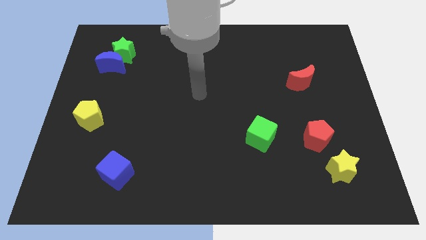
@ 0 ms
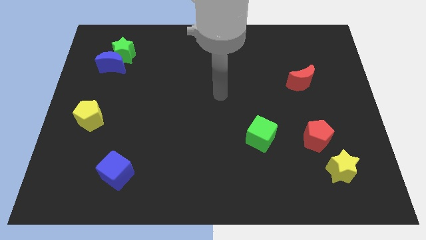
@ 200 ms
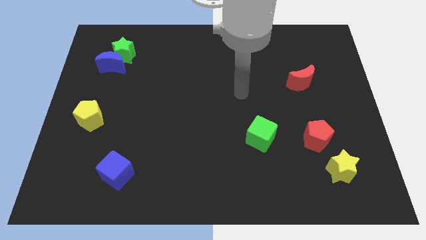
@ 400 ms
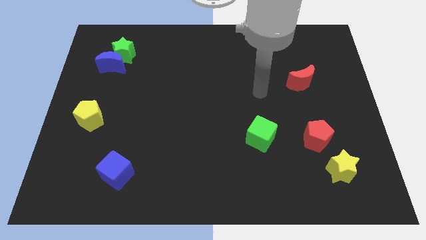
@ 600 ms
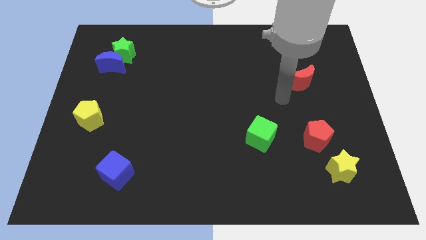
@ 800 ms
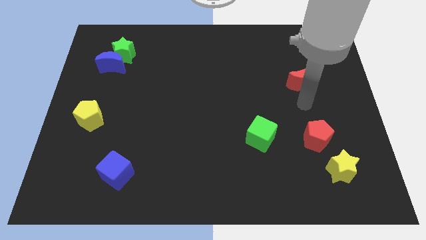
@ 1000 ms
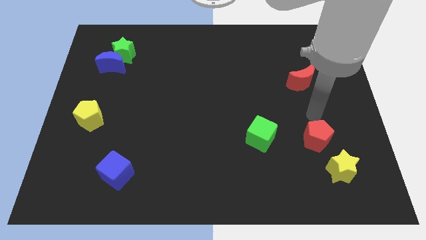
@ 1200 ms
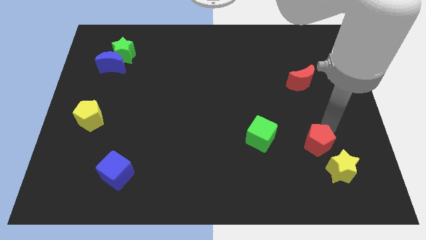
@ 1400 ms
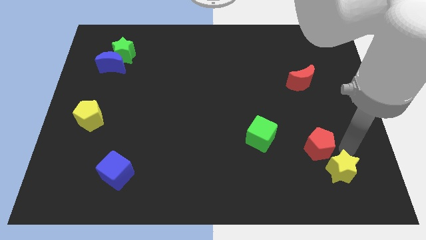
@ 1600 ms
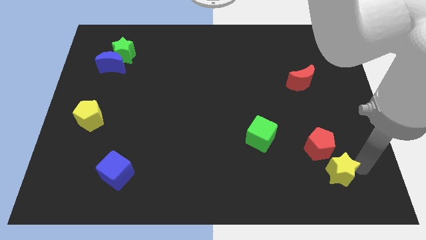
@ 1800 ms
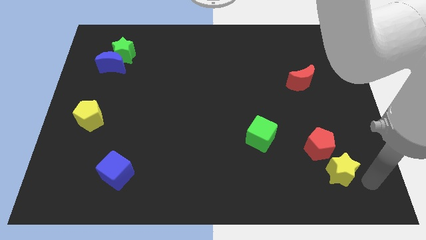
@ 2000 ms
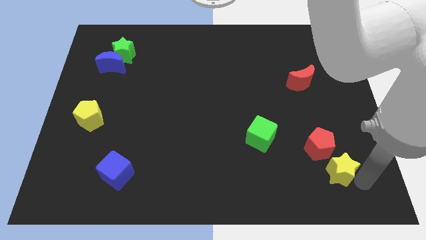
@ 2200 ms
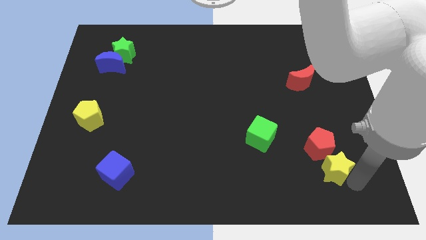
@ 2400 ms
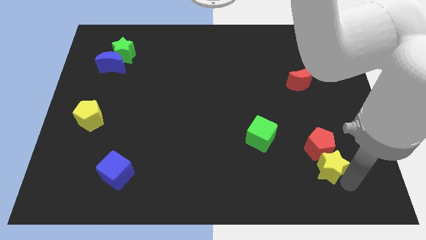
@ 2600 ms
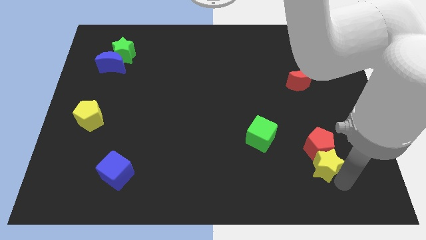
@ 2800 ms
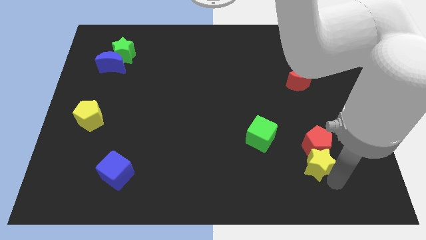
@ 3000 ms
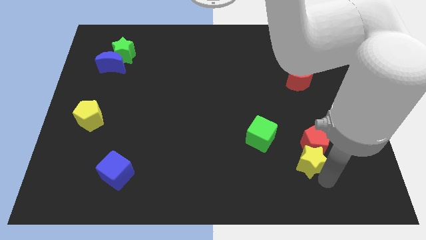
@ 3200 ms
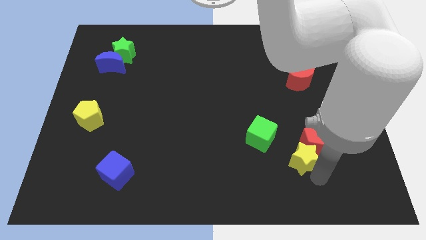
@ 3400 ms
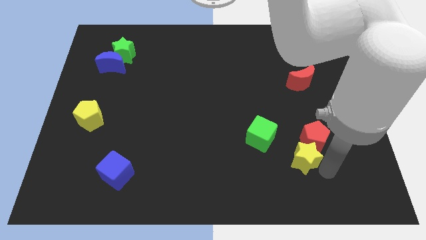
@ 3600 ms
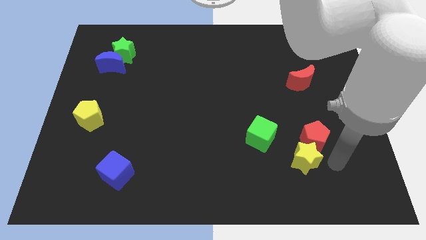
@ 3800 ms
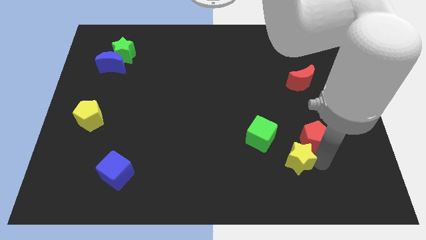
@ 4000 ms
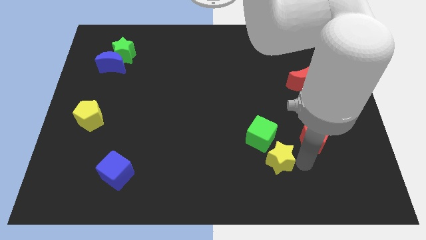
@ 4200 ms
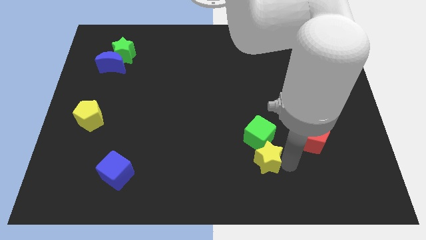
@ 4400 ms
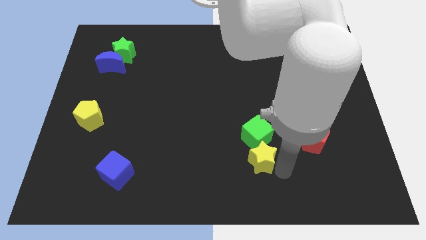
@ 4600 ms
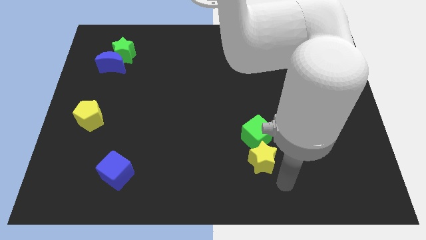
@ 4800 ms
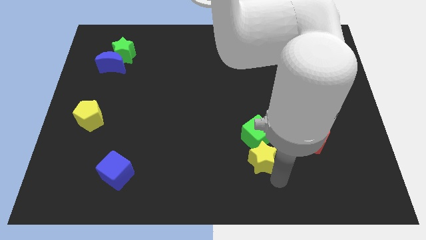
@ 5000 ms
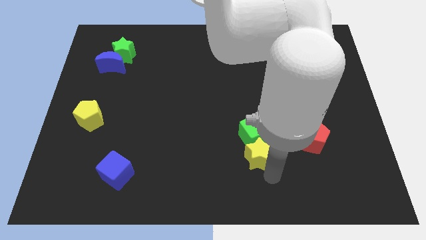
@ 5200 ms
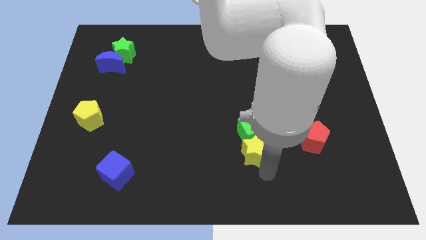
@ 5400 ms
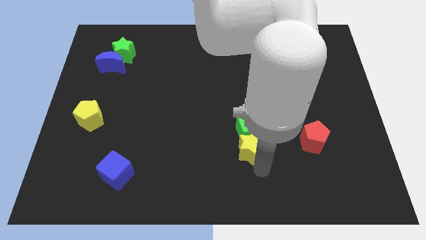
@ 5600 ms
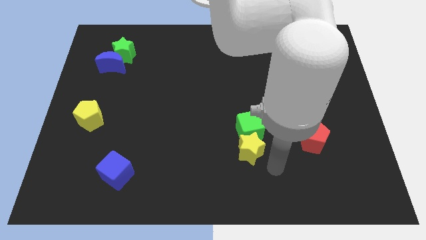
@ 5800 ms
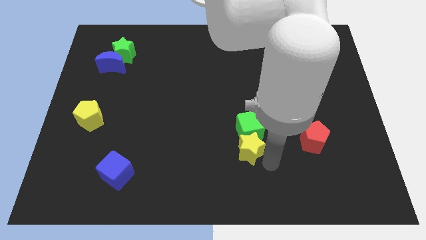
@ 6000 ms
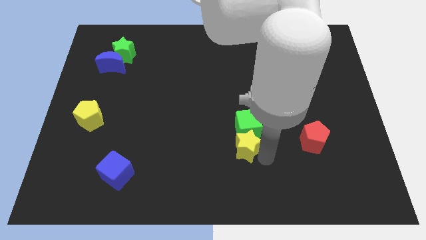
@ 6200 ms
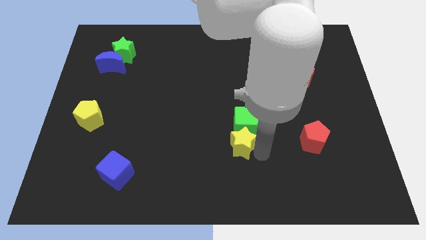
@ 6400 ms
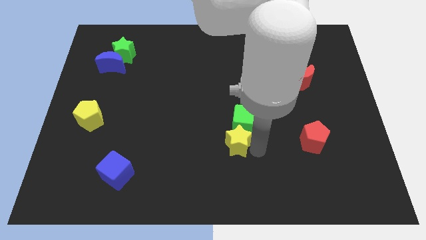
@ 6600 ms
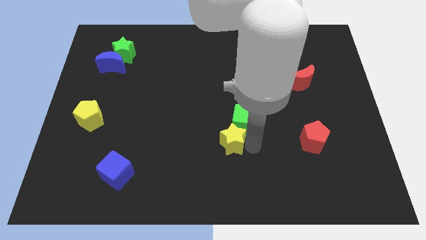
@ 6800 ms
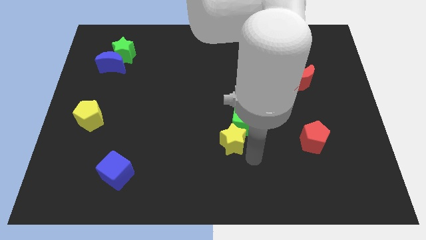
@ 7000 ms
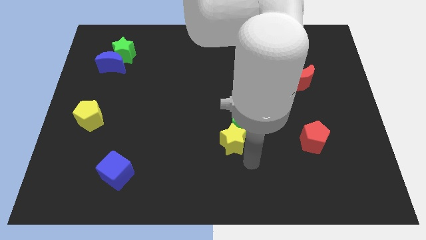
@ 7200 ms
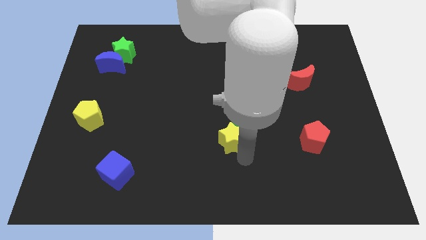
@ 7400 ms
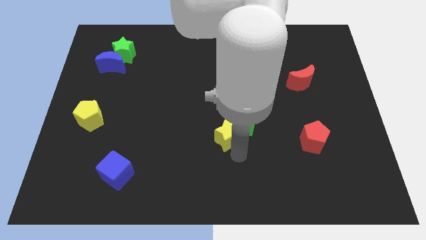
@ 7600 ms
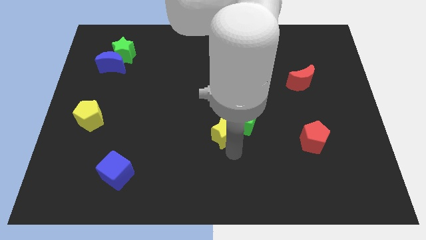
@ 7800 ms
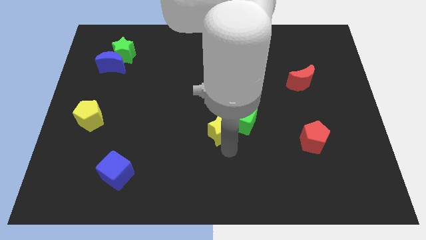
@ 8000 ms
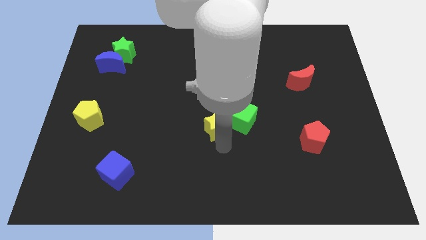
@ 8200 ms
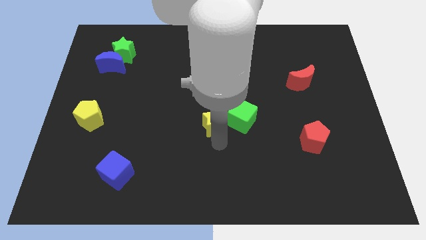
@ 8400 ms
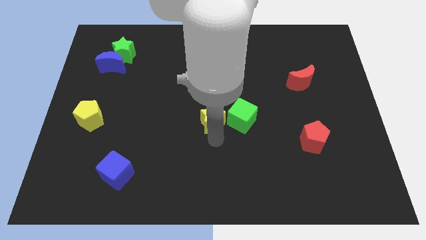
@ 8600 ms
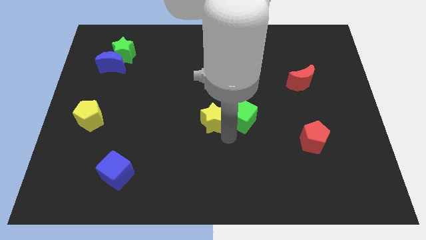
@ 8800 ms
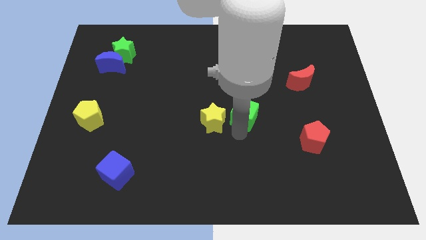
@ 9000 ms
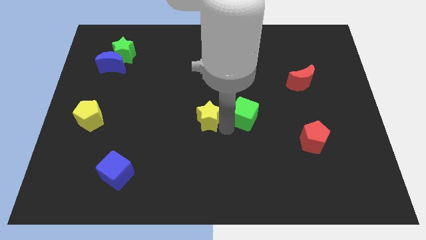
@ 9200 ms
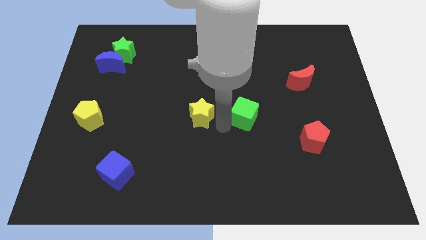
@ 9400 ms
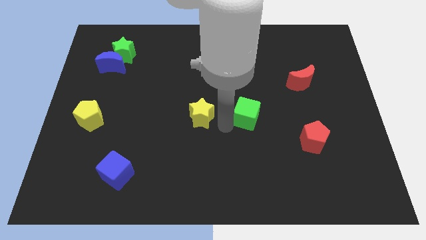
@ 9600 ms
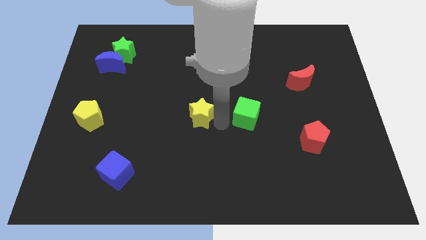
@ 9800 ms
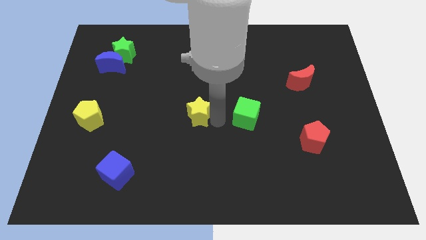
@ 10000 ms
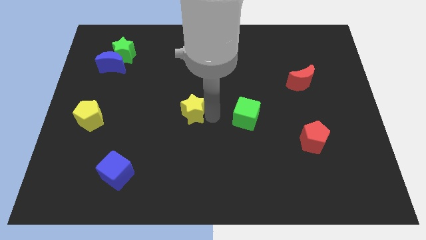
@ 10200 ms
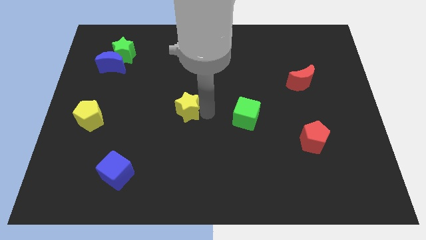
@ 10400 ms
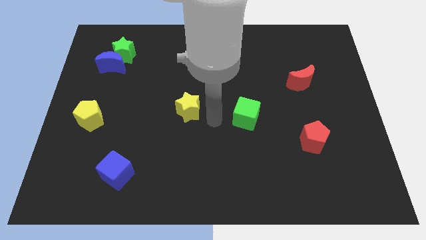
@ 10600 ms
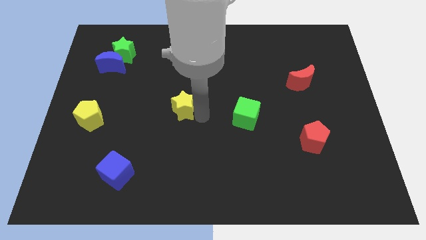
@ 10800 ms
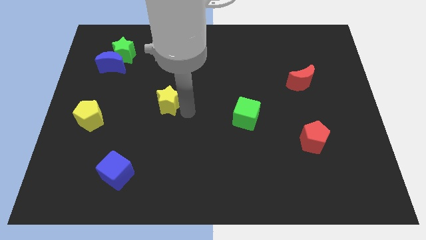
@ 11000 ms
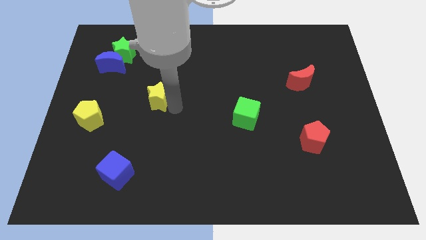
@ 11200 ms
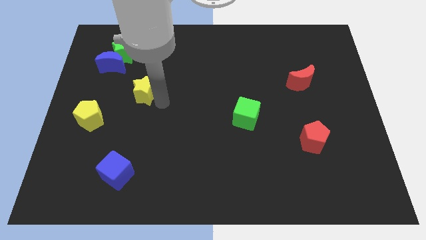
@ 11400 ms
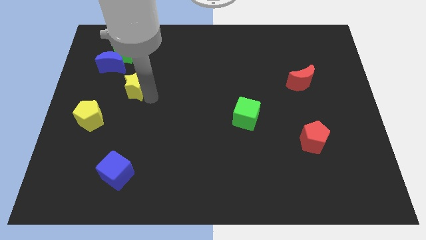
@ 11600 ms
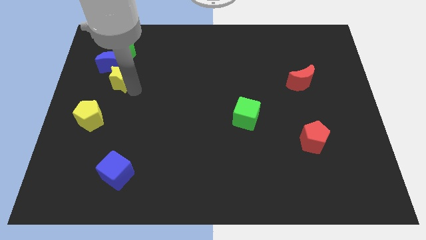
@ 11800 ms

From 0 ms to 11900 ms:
put the yellow star towards the blue moon

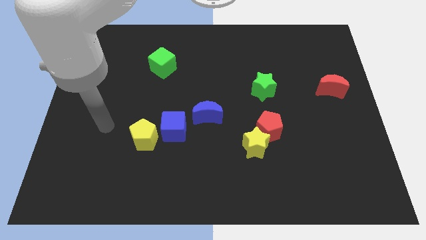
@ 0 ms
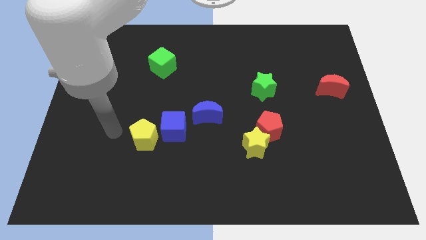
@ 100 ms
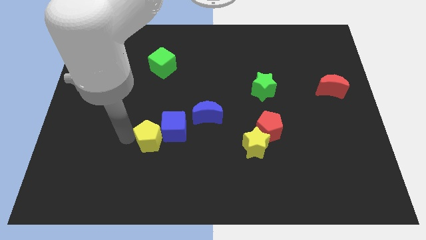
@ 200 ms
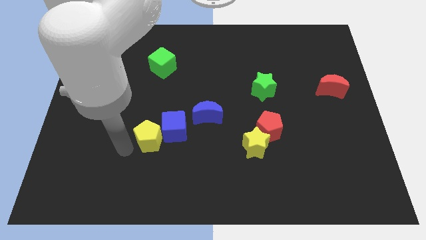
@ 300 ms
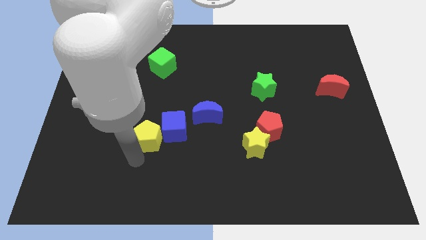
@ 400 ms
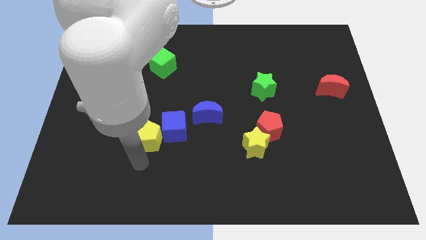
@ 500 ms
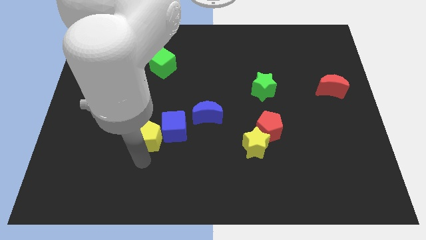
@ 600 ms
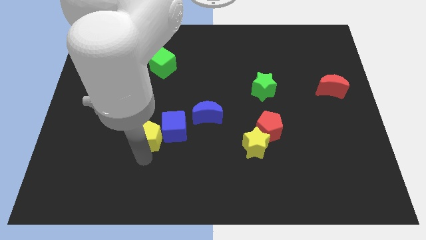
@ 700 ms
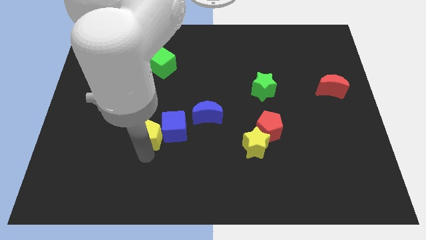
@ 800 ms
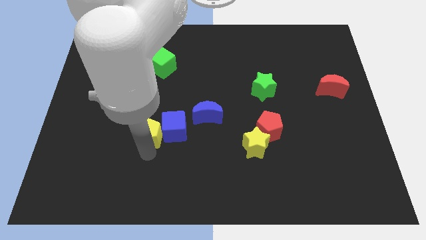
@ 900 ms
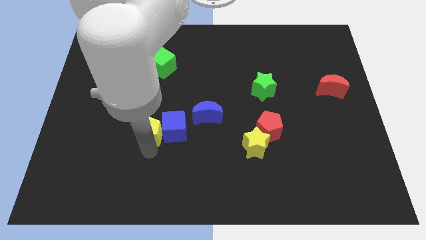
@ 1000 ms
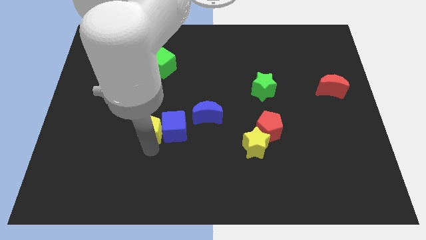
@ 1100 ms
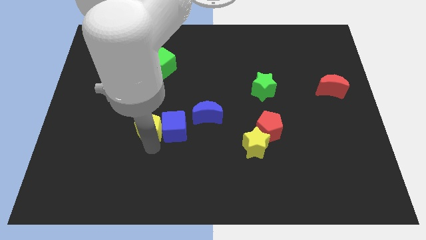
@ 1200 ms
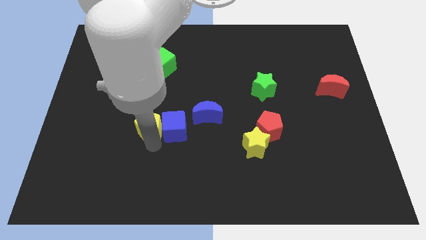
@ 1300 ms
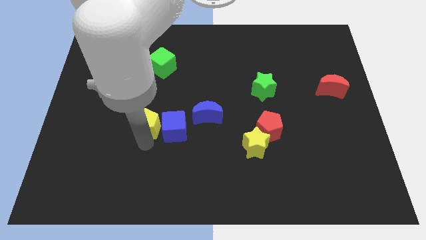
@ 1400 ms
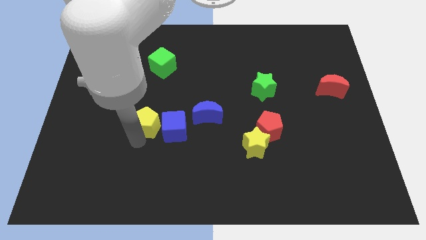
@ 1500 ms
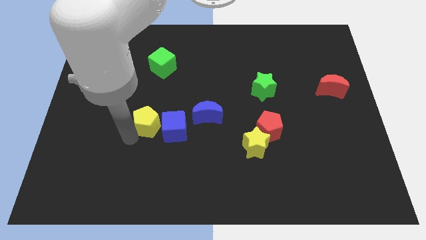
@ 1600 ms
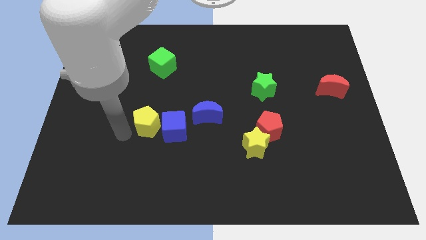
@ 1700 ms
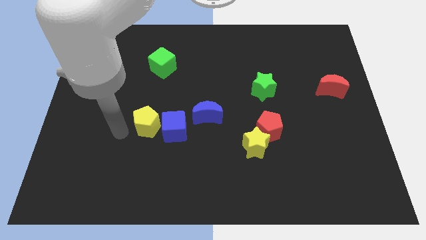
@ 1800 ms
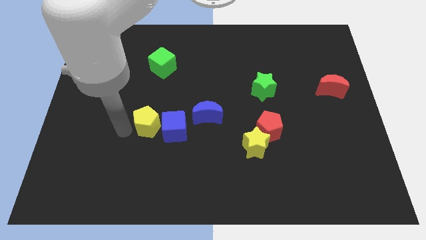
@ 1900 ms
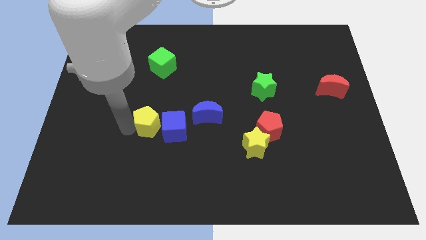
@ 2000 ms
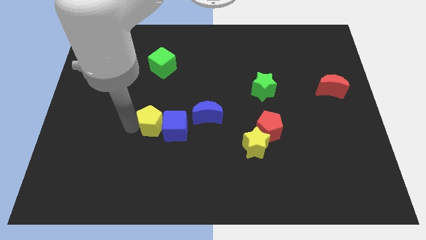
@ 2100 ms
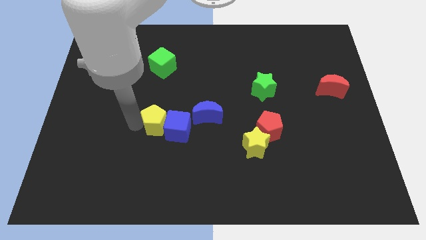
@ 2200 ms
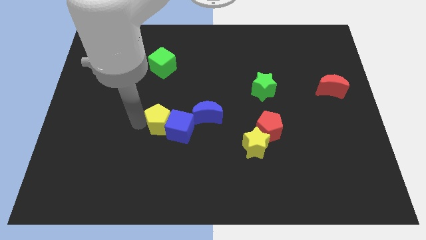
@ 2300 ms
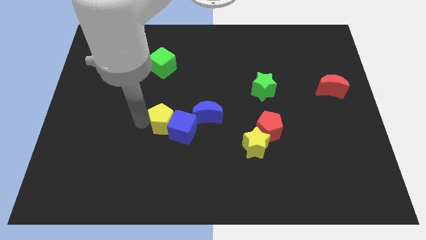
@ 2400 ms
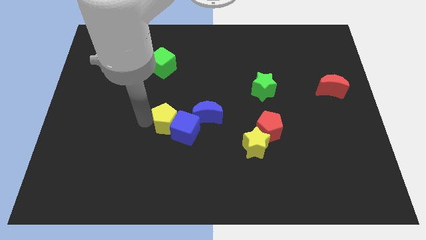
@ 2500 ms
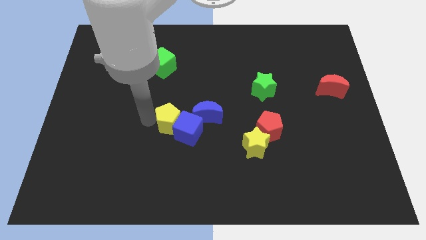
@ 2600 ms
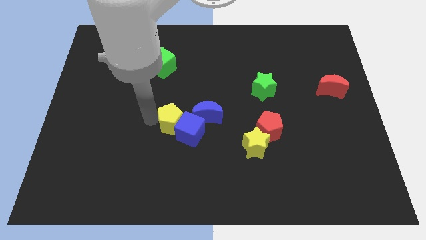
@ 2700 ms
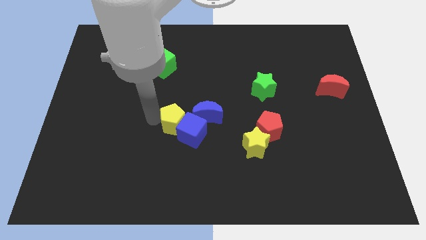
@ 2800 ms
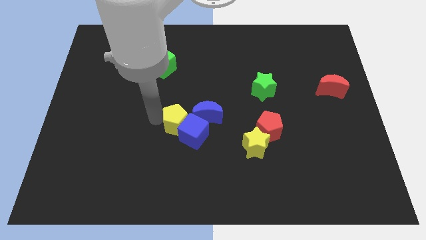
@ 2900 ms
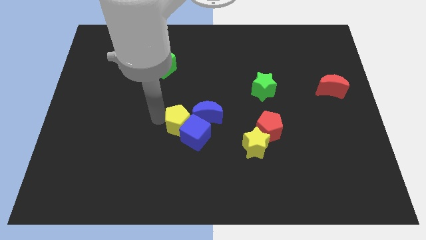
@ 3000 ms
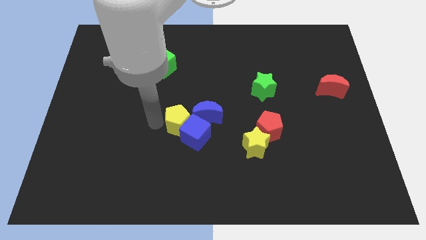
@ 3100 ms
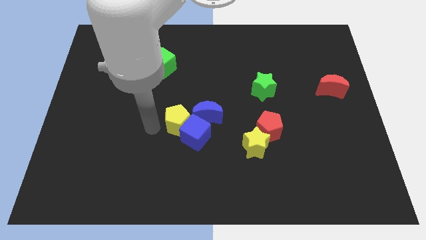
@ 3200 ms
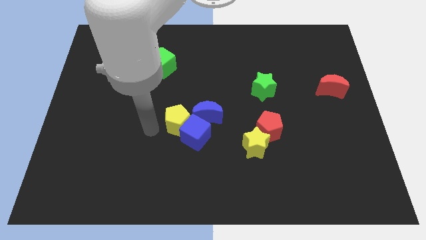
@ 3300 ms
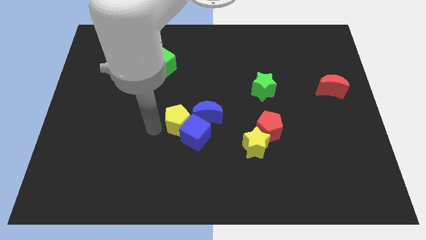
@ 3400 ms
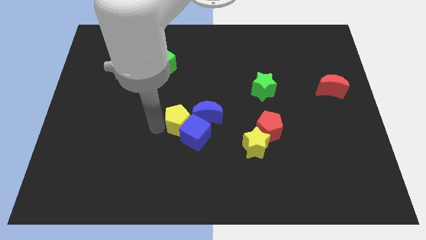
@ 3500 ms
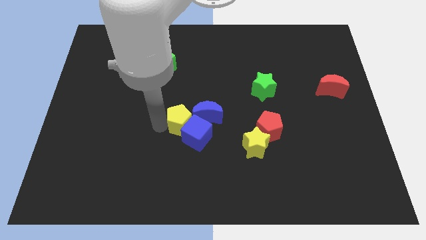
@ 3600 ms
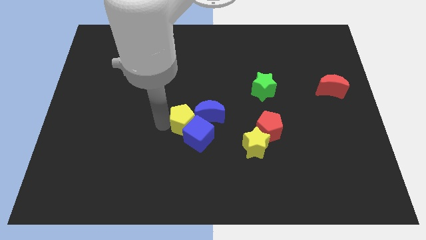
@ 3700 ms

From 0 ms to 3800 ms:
move the yellow pentagon towards the blue moon
